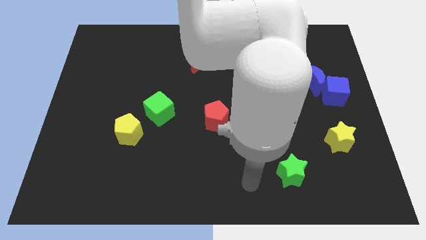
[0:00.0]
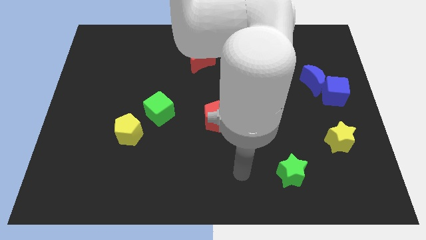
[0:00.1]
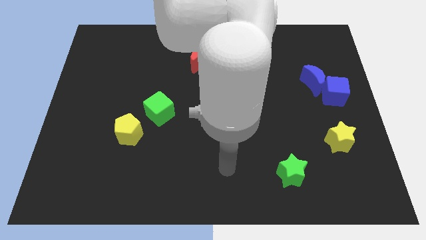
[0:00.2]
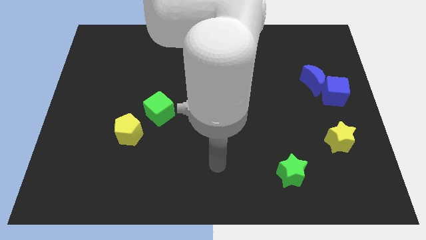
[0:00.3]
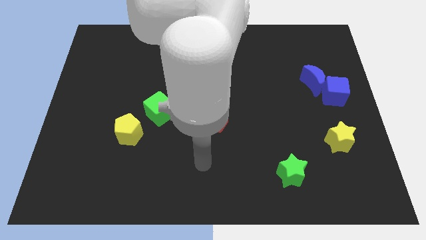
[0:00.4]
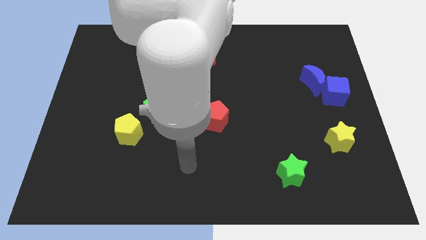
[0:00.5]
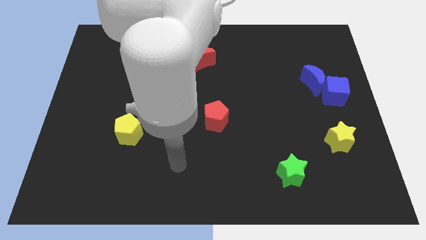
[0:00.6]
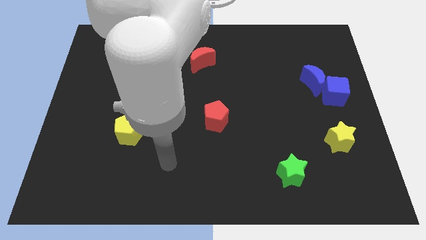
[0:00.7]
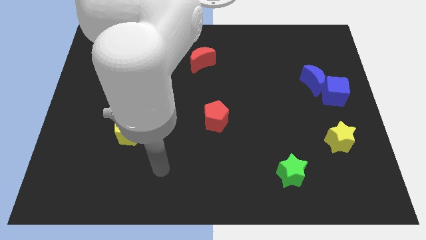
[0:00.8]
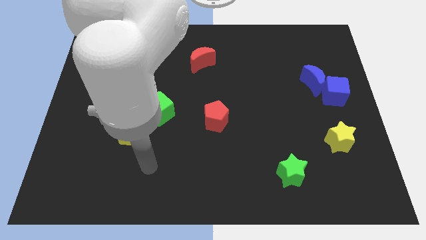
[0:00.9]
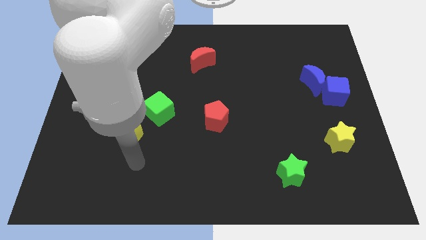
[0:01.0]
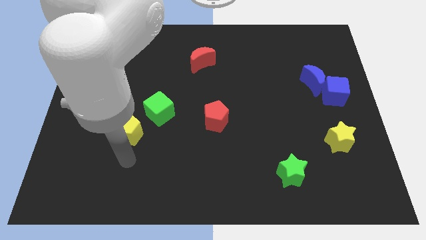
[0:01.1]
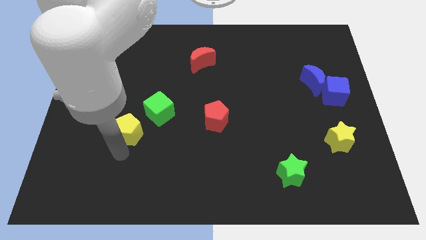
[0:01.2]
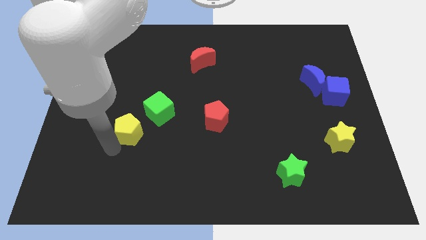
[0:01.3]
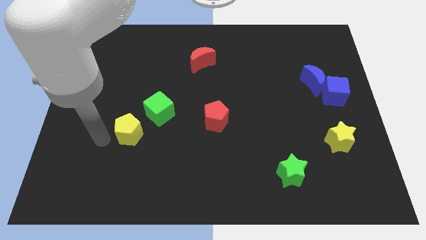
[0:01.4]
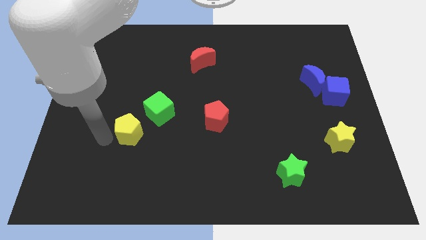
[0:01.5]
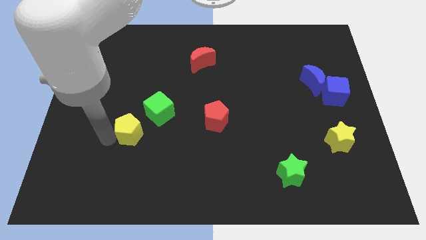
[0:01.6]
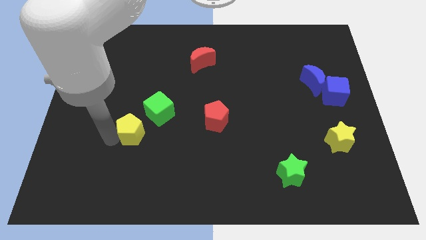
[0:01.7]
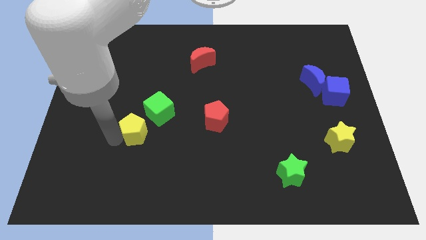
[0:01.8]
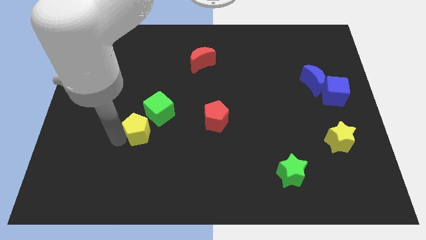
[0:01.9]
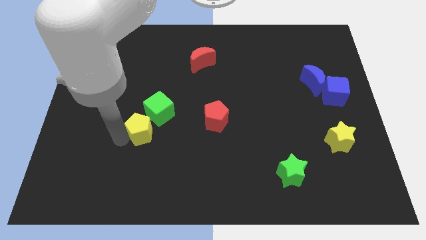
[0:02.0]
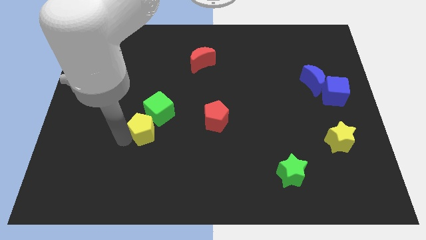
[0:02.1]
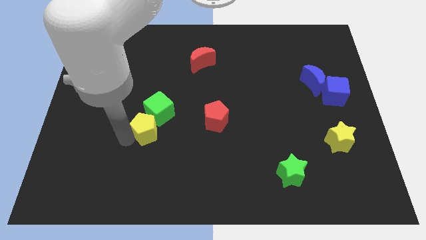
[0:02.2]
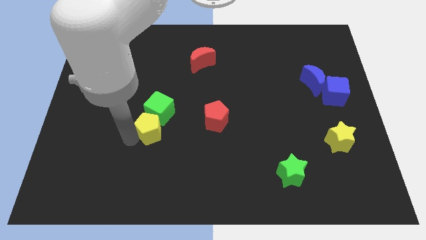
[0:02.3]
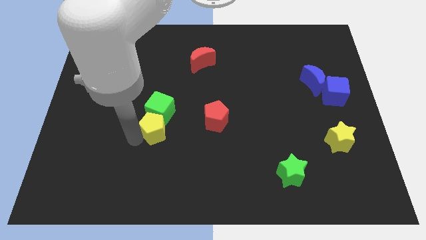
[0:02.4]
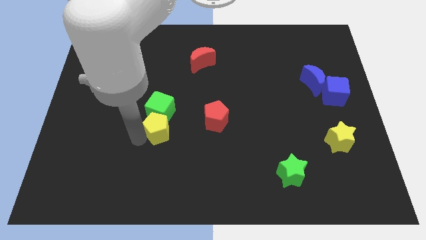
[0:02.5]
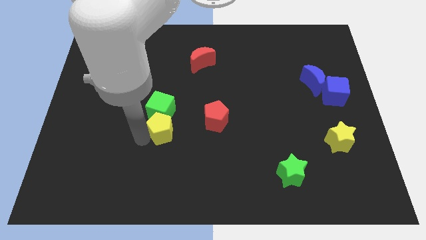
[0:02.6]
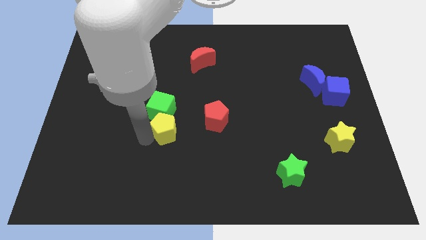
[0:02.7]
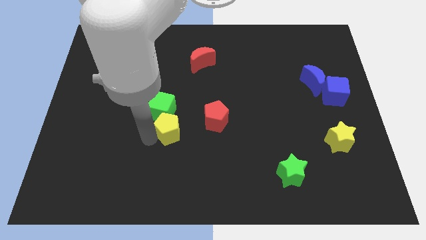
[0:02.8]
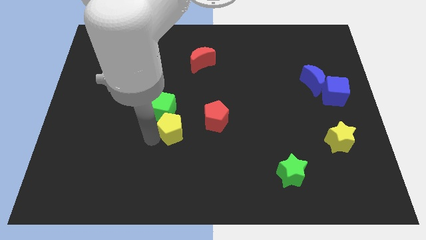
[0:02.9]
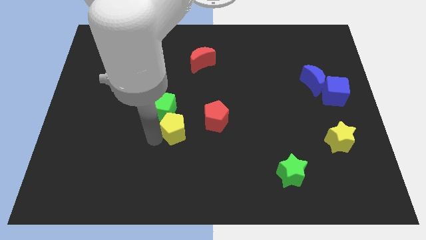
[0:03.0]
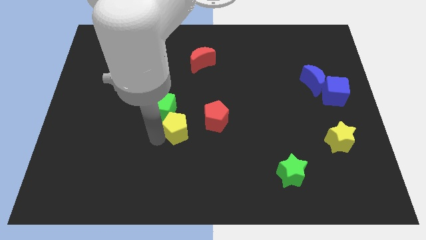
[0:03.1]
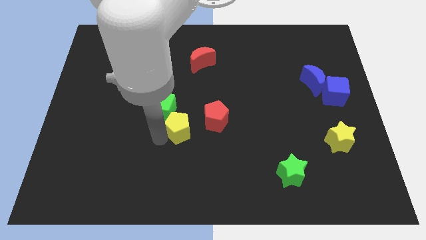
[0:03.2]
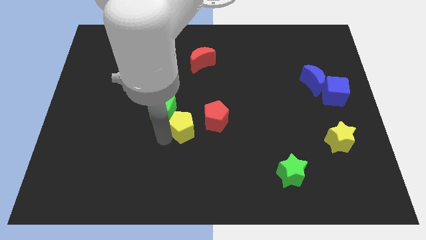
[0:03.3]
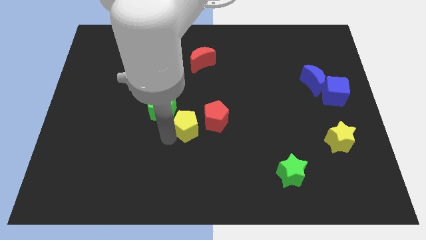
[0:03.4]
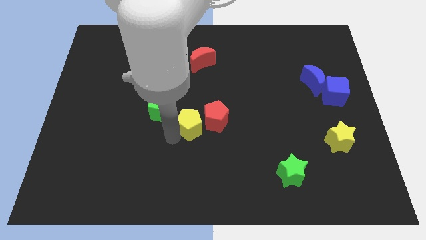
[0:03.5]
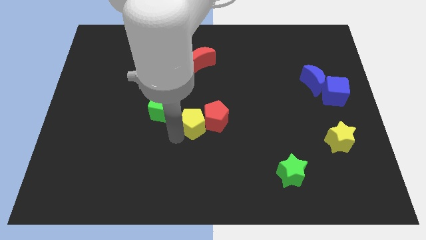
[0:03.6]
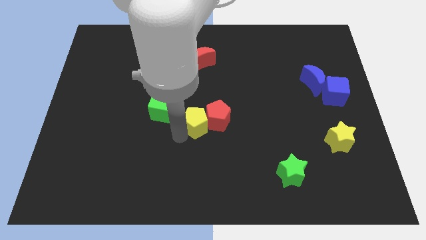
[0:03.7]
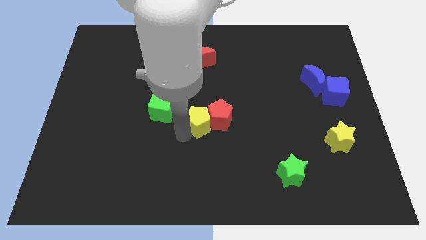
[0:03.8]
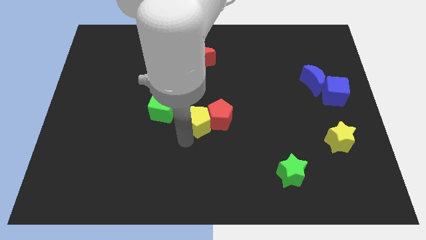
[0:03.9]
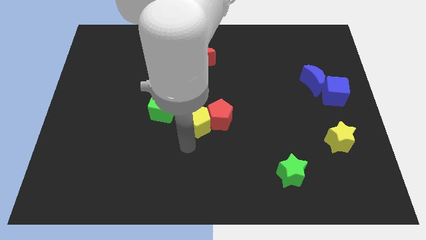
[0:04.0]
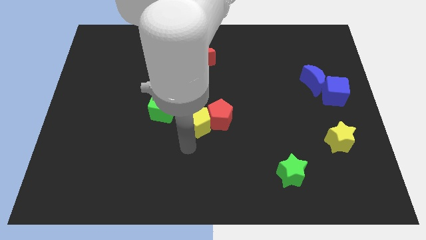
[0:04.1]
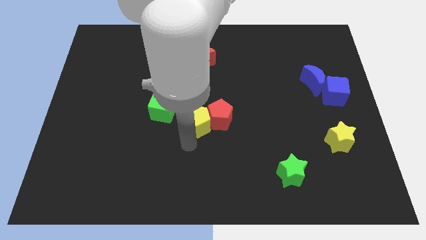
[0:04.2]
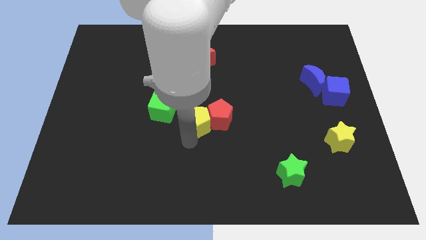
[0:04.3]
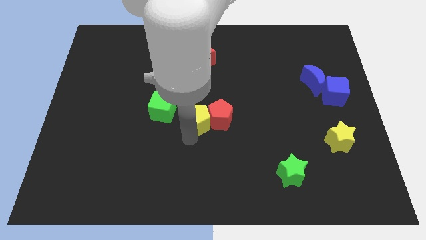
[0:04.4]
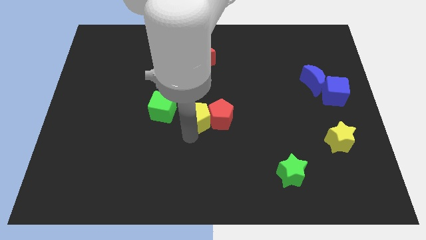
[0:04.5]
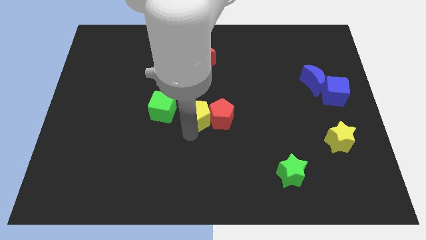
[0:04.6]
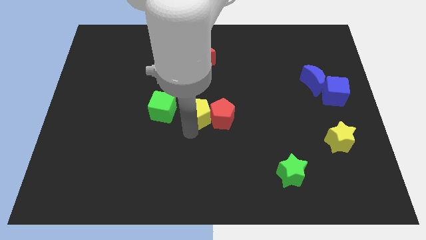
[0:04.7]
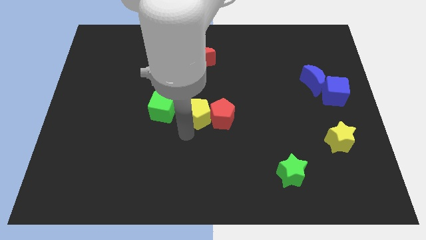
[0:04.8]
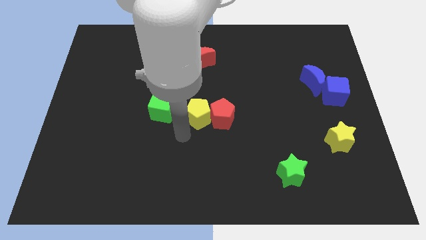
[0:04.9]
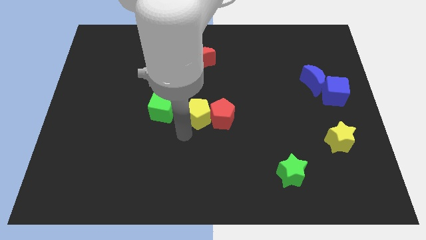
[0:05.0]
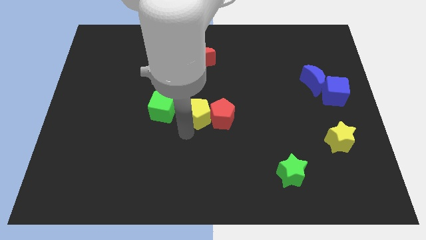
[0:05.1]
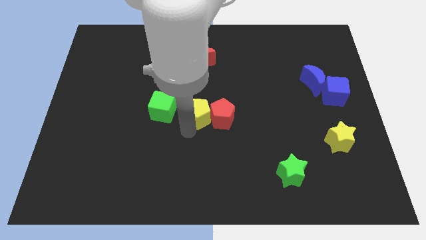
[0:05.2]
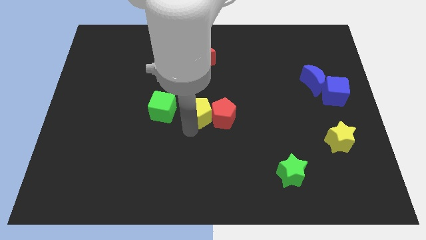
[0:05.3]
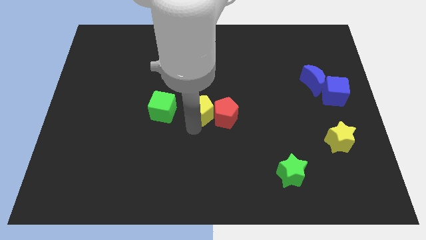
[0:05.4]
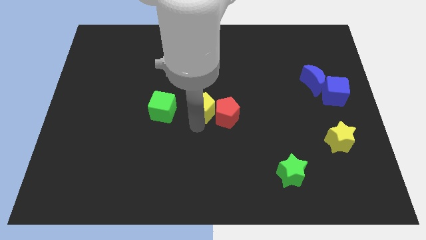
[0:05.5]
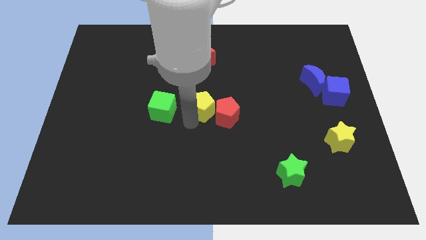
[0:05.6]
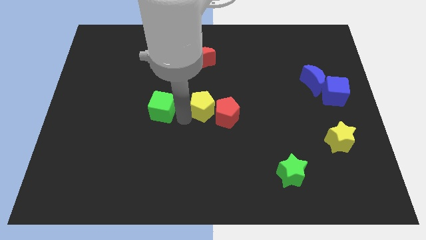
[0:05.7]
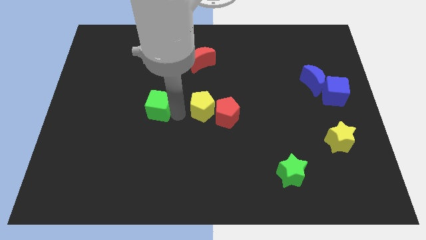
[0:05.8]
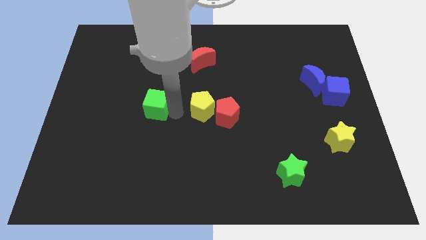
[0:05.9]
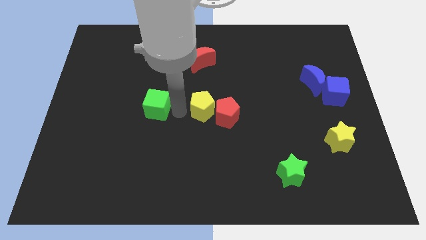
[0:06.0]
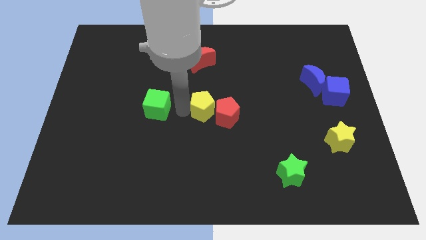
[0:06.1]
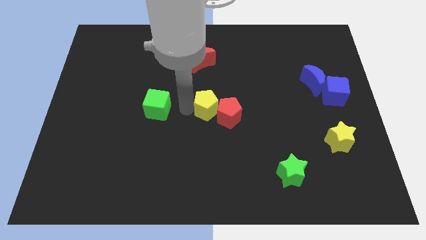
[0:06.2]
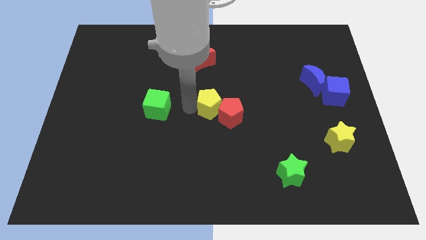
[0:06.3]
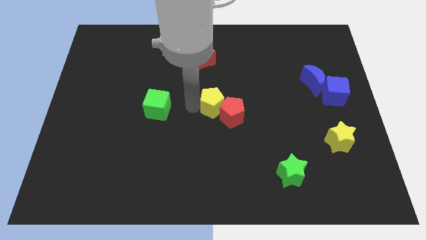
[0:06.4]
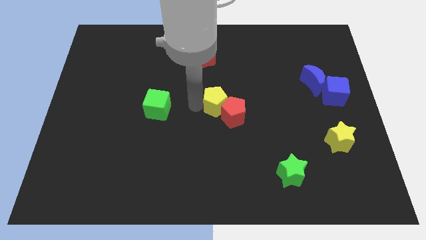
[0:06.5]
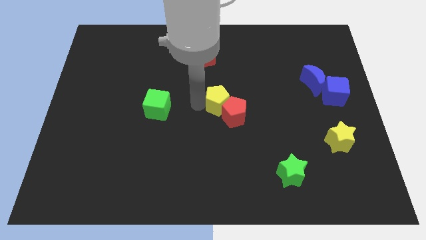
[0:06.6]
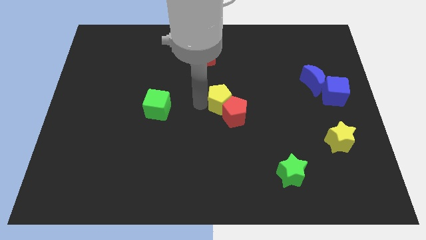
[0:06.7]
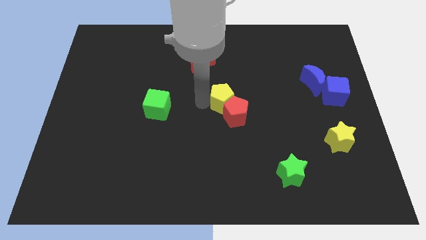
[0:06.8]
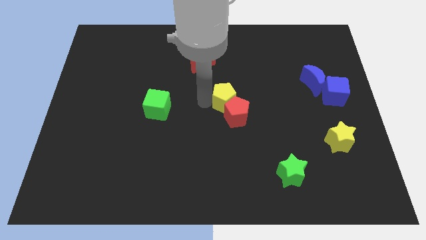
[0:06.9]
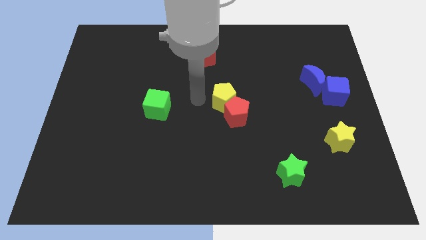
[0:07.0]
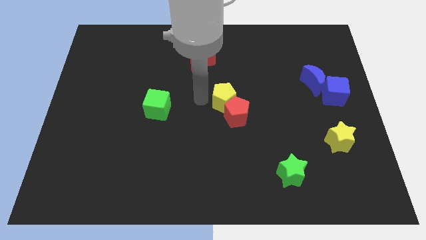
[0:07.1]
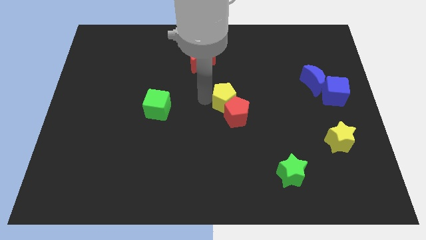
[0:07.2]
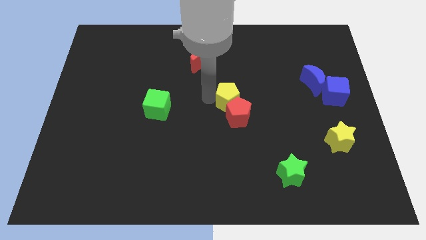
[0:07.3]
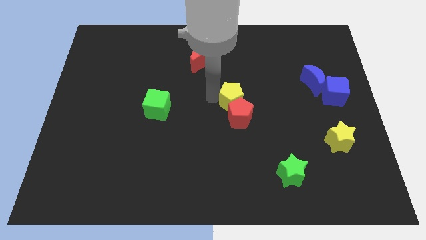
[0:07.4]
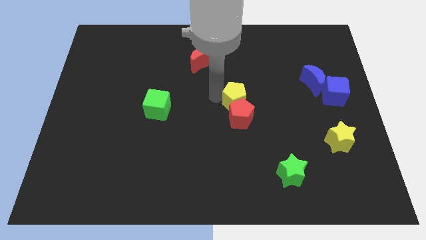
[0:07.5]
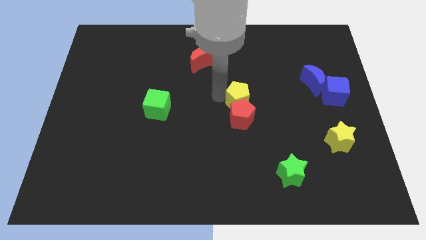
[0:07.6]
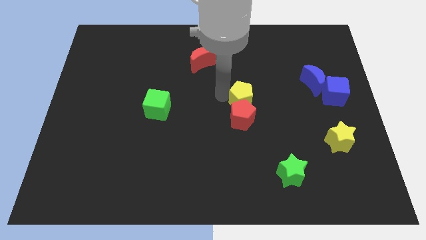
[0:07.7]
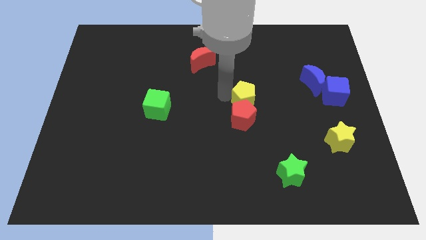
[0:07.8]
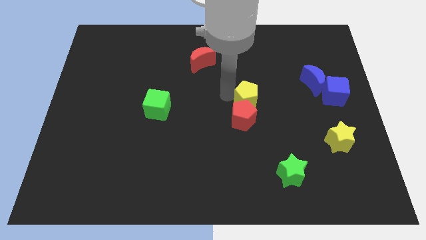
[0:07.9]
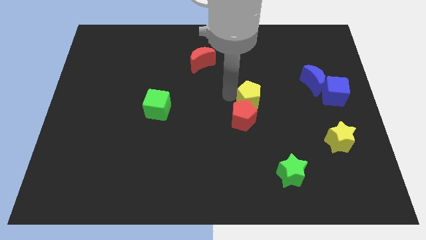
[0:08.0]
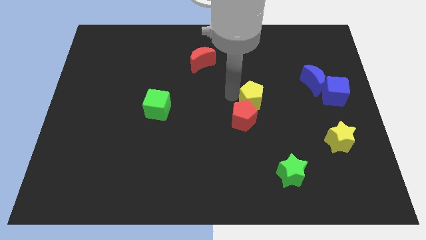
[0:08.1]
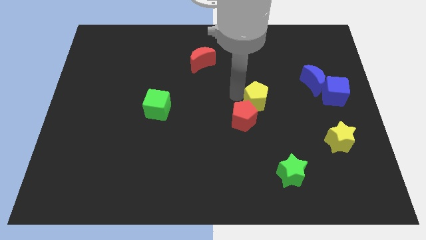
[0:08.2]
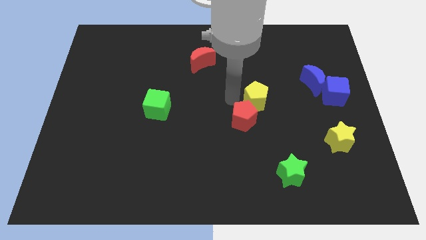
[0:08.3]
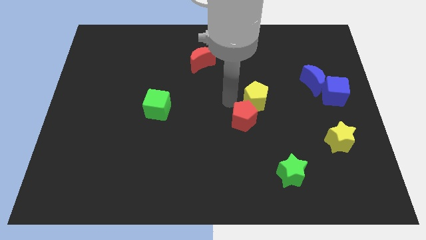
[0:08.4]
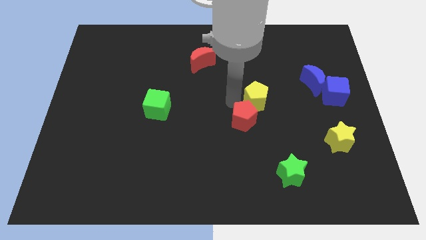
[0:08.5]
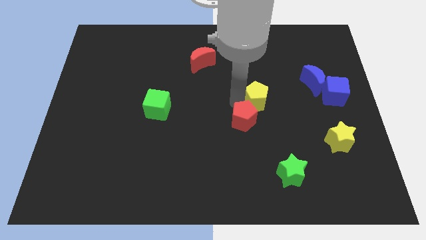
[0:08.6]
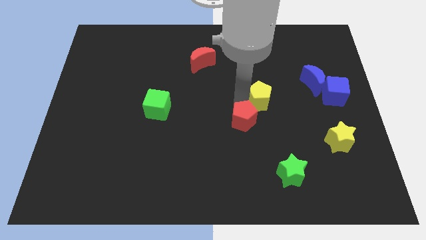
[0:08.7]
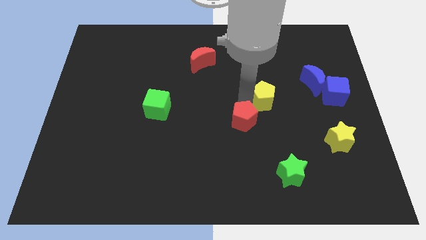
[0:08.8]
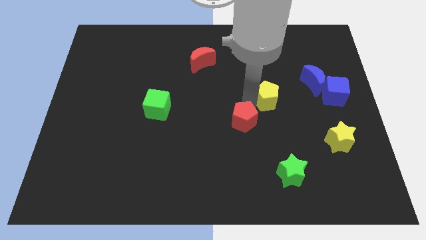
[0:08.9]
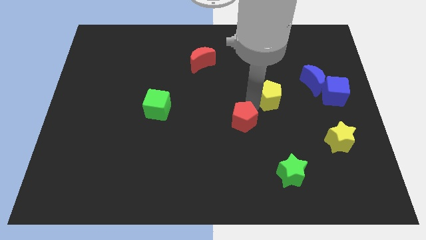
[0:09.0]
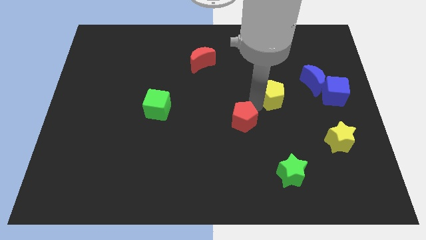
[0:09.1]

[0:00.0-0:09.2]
push the yellow pentagon to the bottom left of the blue moon
